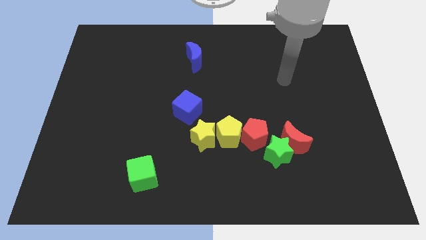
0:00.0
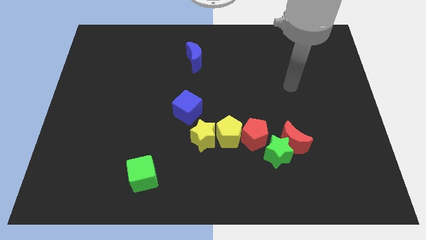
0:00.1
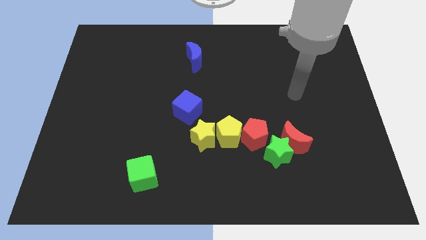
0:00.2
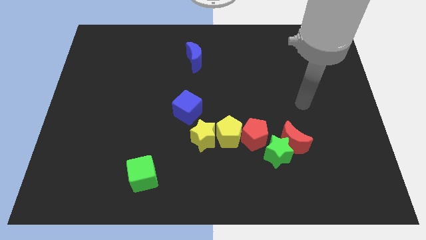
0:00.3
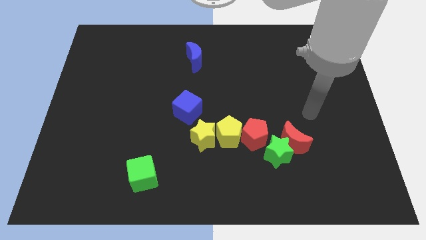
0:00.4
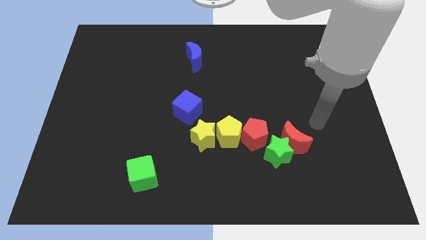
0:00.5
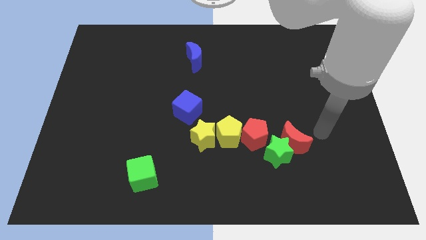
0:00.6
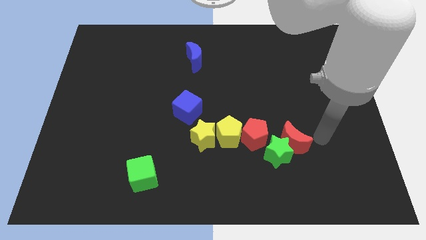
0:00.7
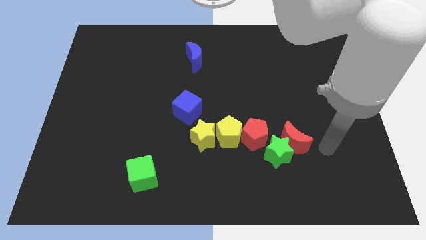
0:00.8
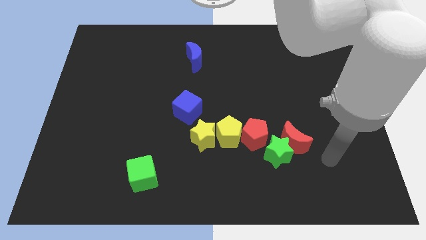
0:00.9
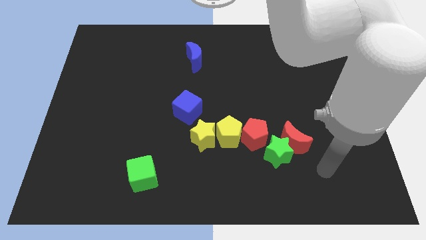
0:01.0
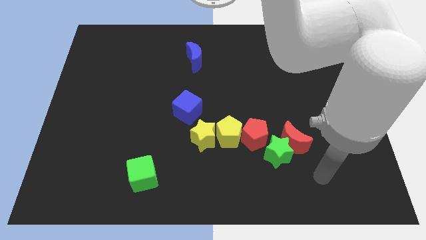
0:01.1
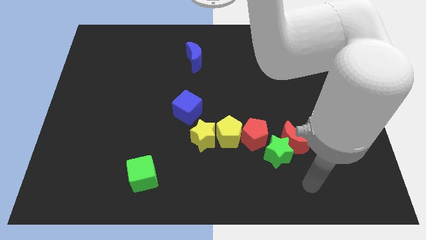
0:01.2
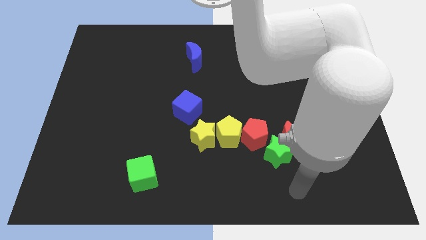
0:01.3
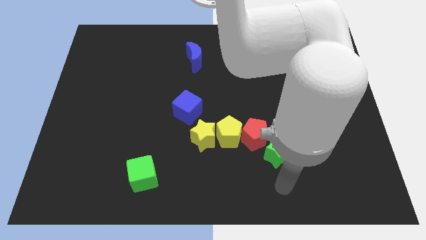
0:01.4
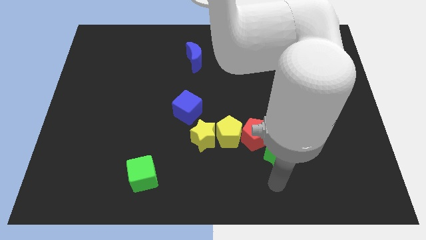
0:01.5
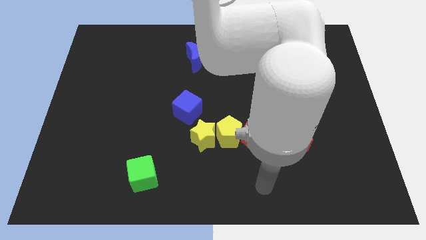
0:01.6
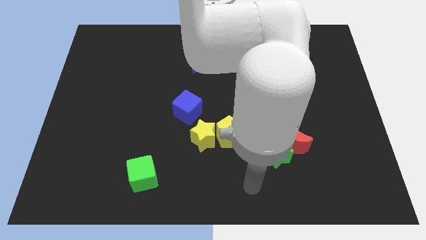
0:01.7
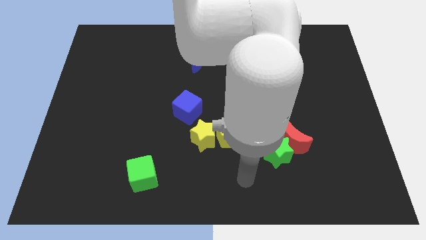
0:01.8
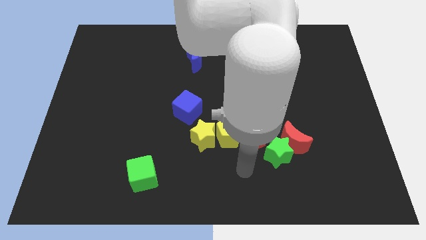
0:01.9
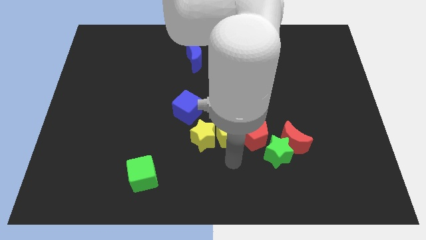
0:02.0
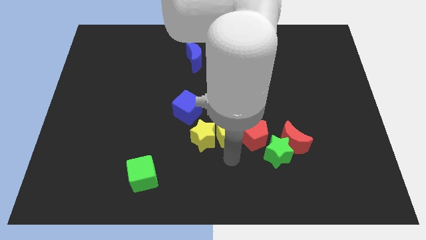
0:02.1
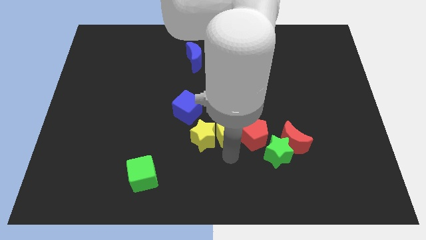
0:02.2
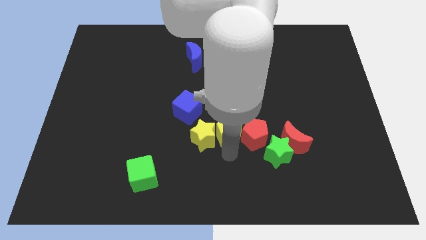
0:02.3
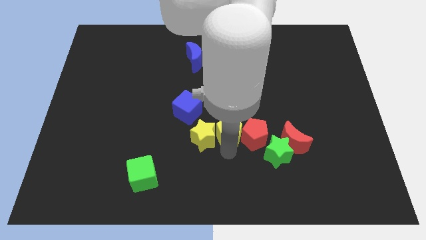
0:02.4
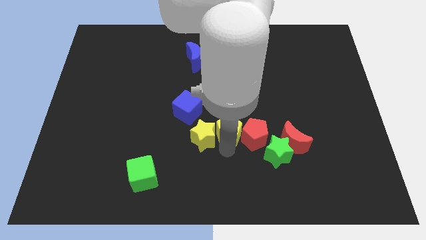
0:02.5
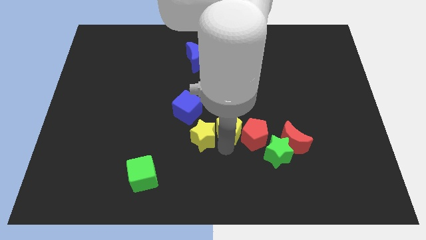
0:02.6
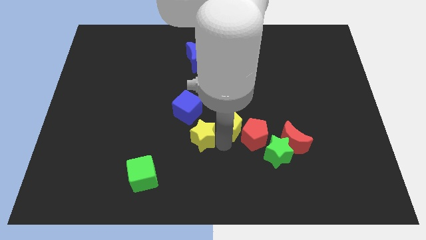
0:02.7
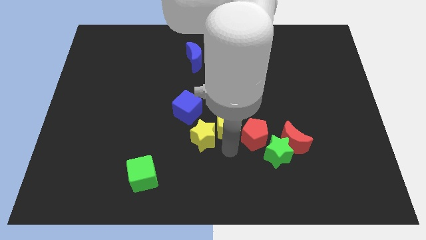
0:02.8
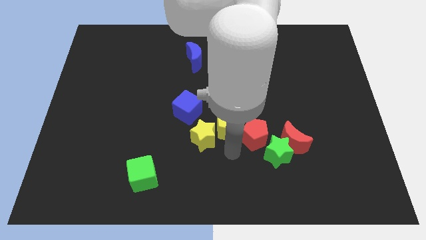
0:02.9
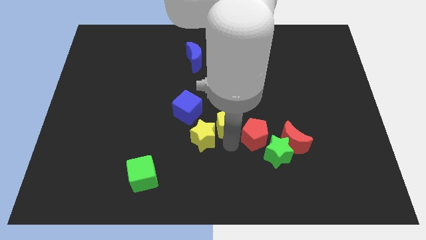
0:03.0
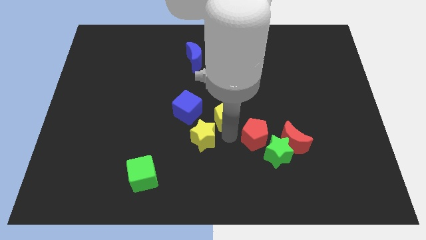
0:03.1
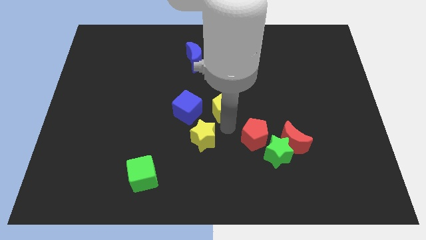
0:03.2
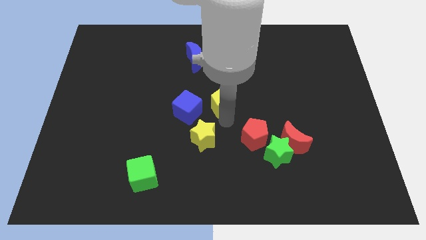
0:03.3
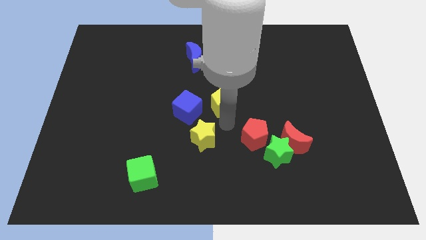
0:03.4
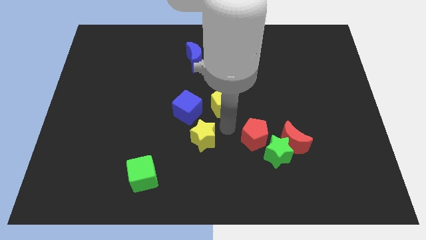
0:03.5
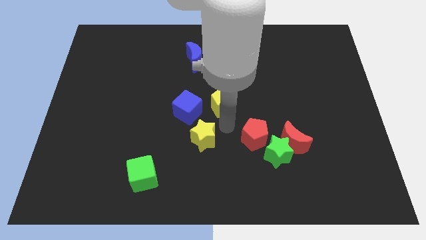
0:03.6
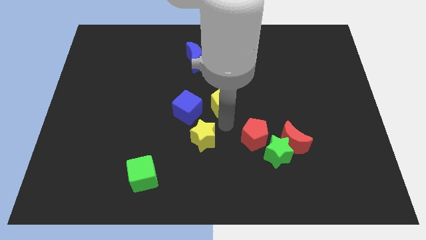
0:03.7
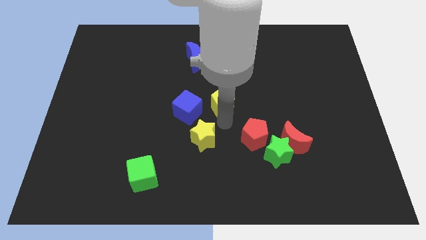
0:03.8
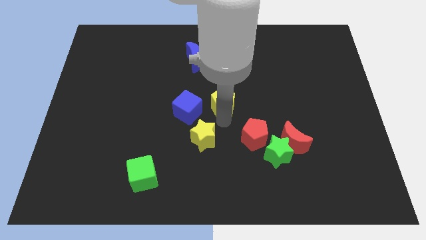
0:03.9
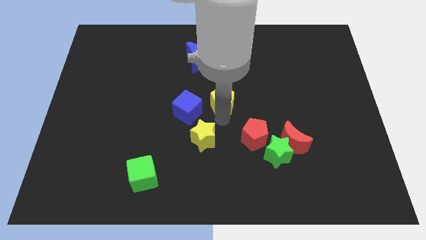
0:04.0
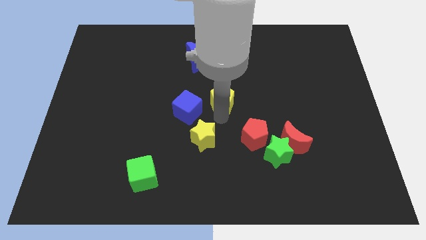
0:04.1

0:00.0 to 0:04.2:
pull the yellow pentagon apart from the yellow star and red pentagon

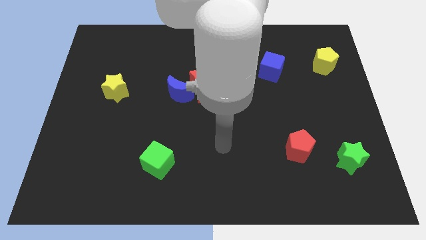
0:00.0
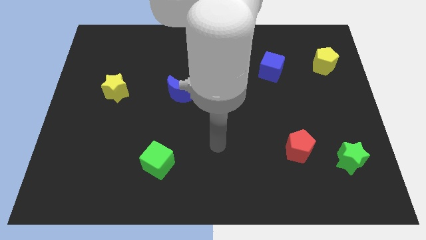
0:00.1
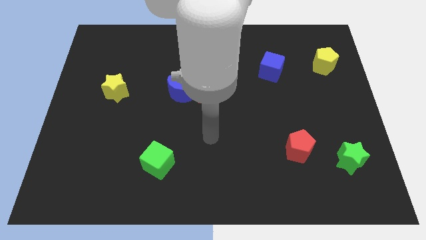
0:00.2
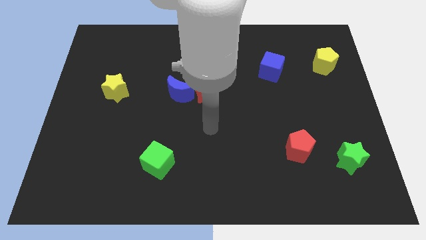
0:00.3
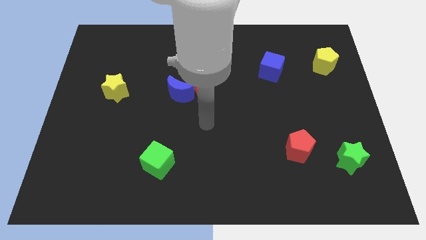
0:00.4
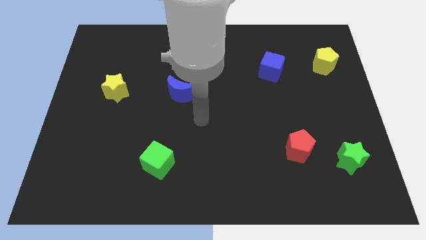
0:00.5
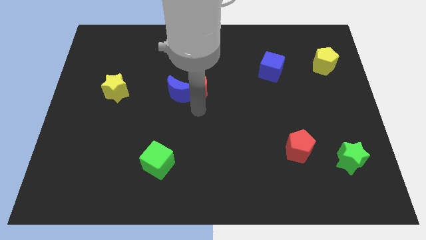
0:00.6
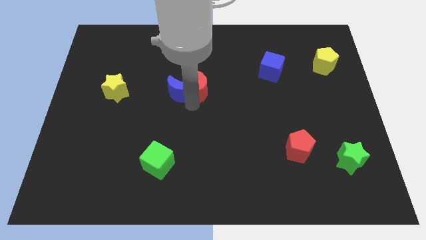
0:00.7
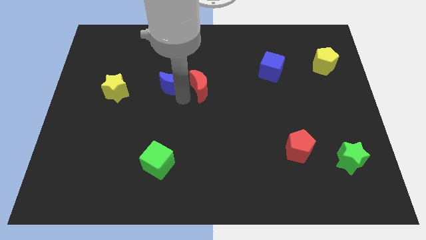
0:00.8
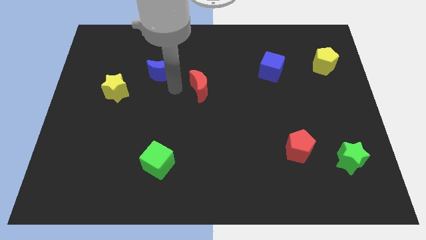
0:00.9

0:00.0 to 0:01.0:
separate the red moon from the blue moon

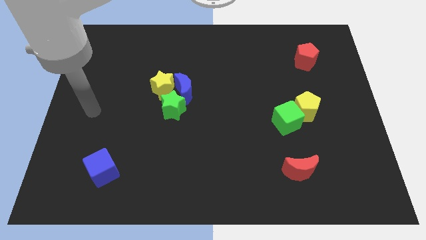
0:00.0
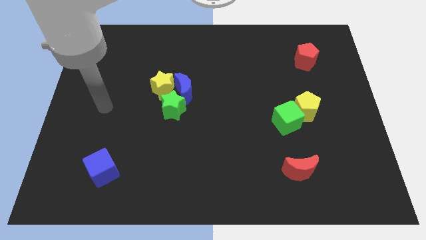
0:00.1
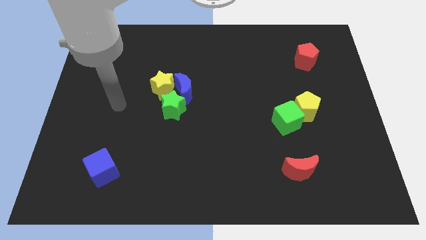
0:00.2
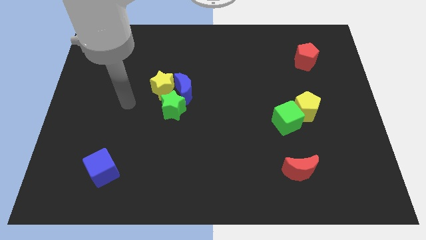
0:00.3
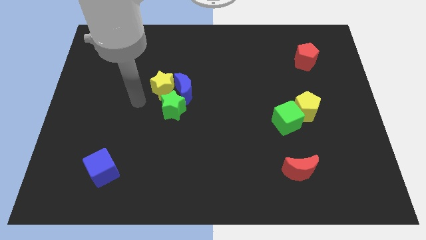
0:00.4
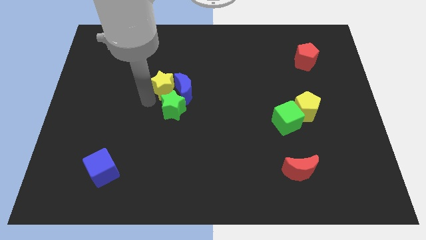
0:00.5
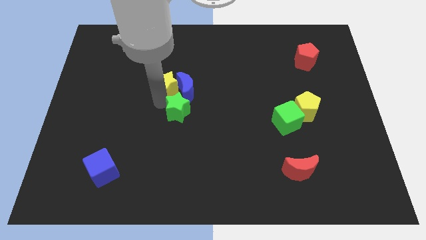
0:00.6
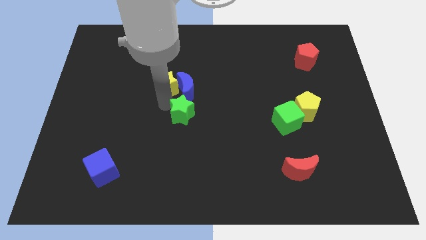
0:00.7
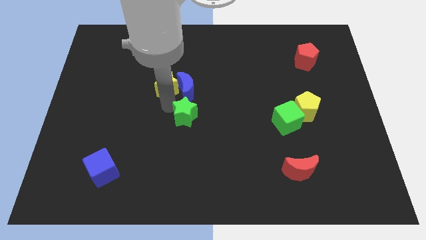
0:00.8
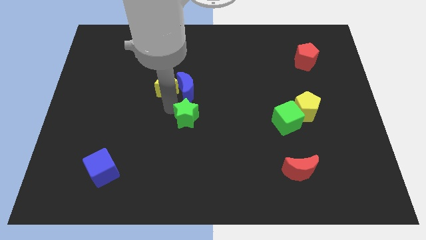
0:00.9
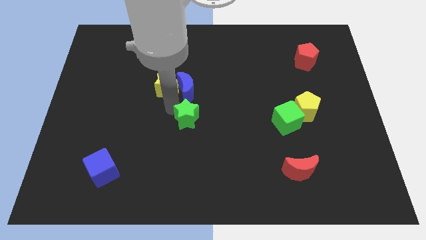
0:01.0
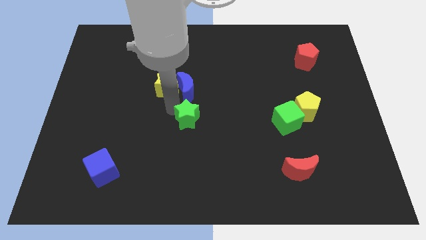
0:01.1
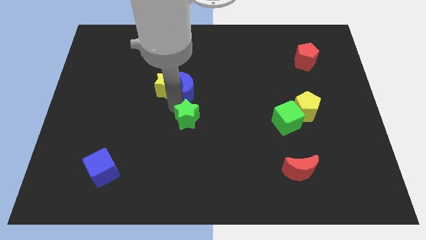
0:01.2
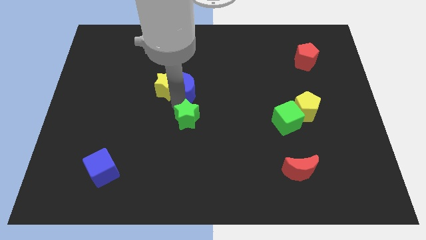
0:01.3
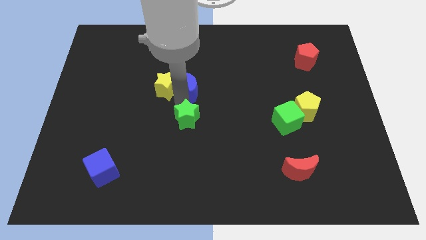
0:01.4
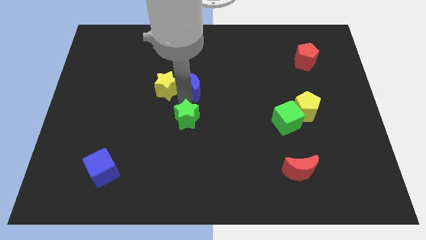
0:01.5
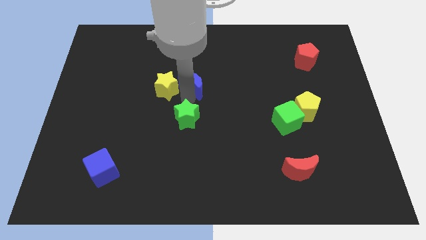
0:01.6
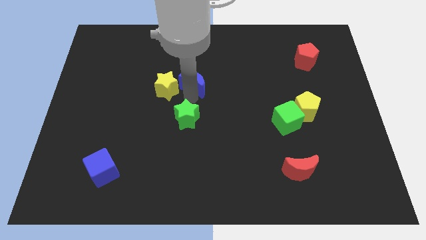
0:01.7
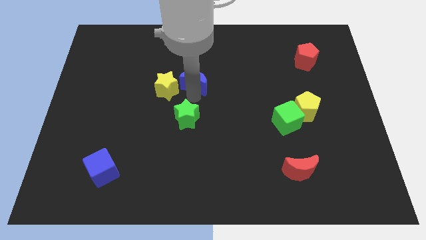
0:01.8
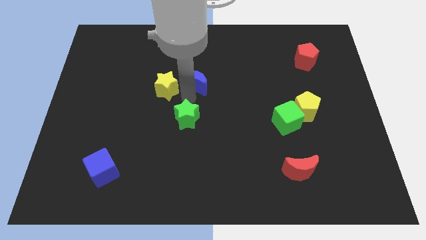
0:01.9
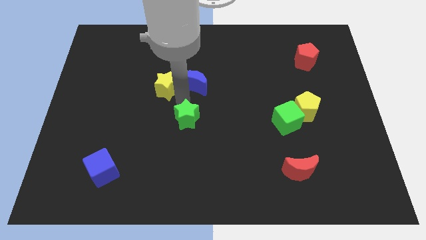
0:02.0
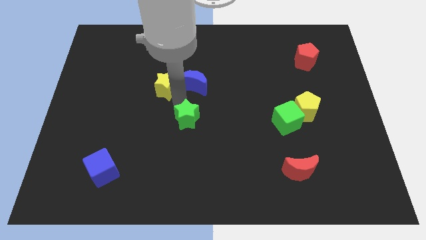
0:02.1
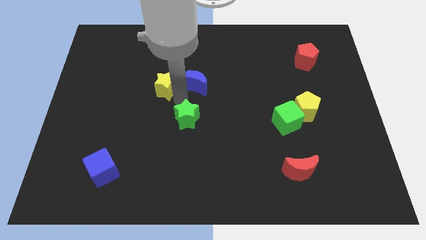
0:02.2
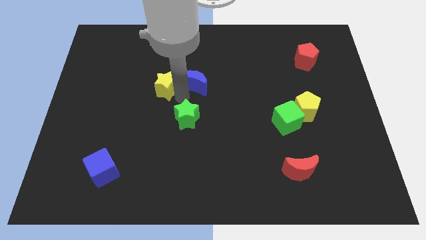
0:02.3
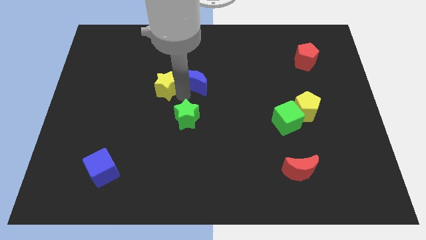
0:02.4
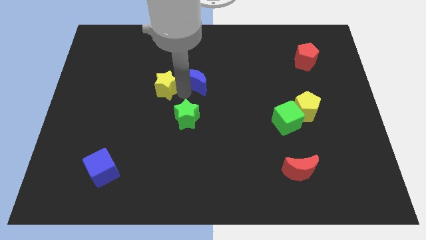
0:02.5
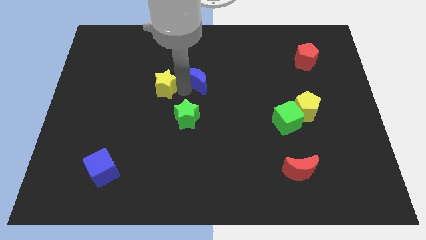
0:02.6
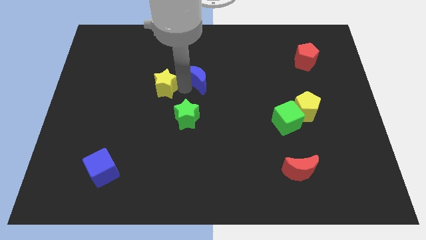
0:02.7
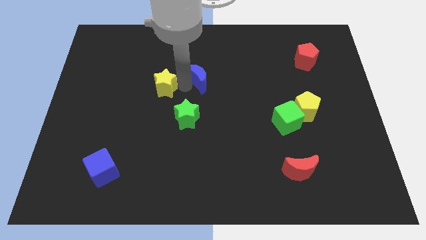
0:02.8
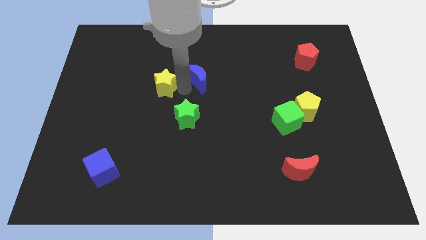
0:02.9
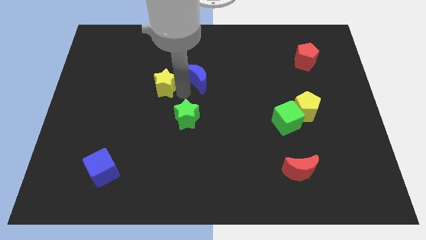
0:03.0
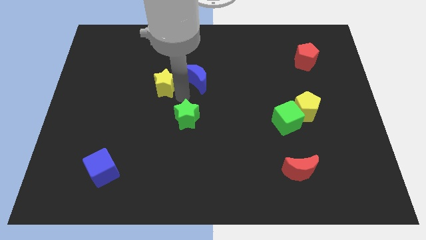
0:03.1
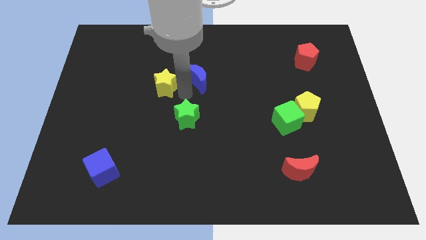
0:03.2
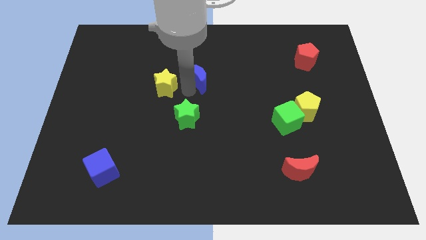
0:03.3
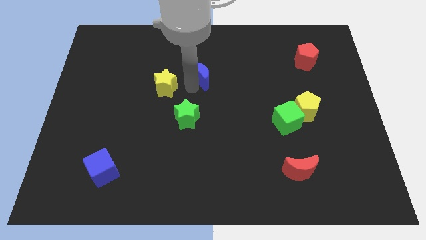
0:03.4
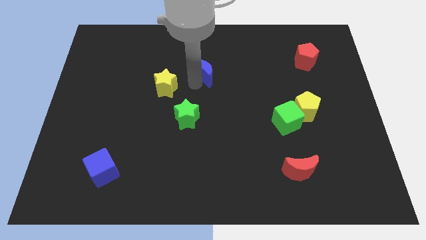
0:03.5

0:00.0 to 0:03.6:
move the blue moon away from the yellow star and green star

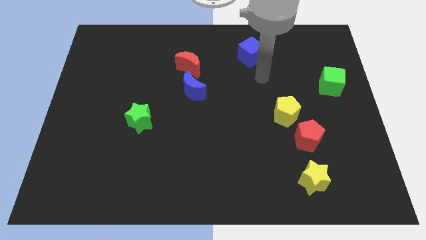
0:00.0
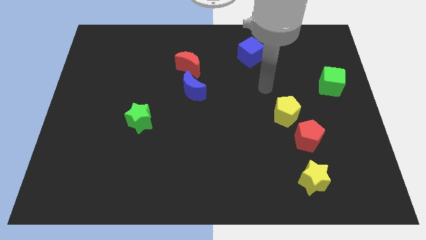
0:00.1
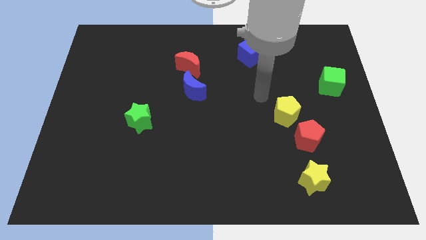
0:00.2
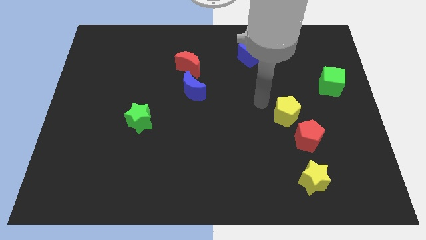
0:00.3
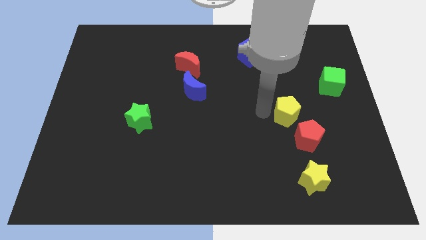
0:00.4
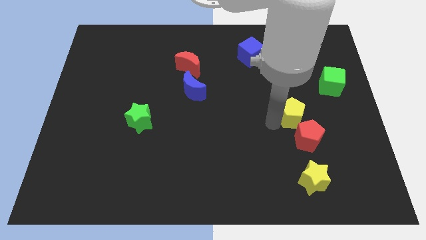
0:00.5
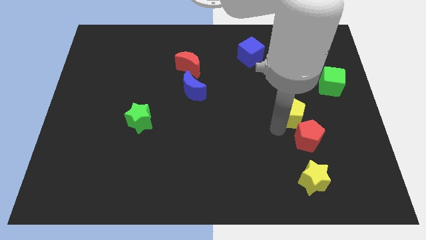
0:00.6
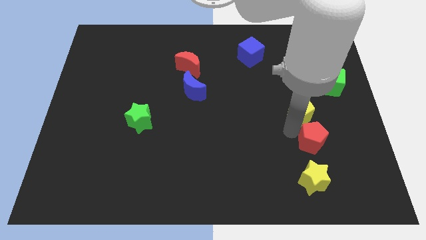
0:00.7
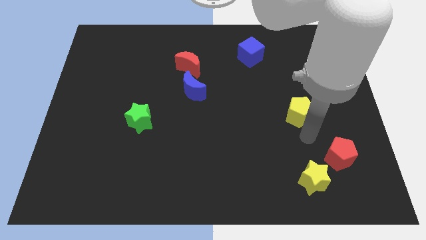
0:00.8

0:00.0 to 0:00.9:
separate the yellow pentagon from the red pentagon
